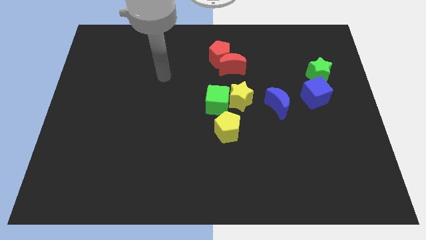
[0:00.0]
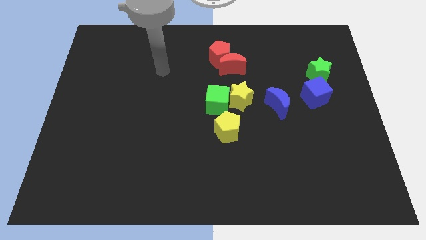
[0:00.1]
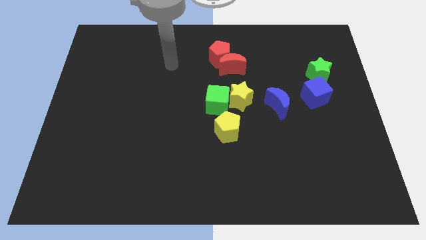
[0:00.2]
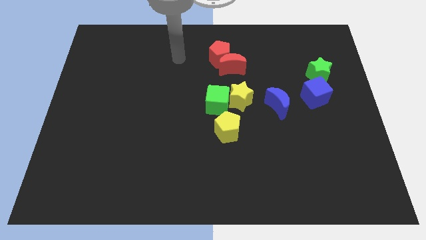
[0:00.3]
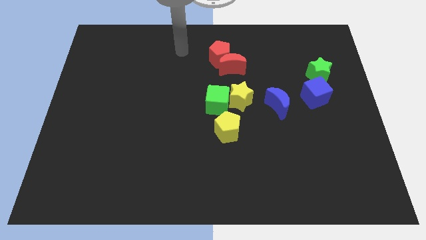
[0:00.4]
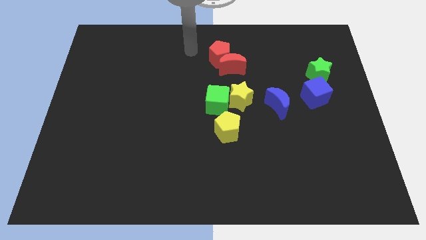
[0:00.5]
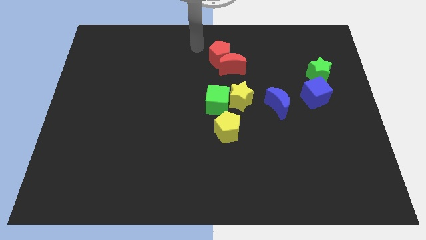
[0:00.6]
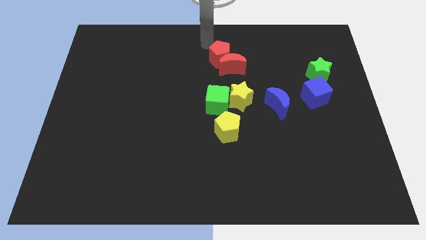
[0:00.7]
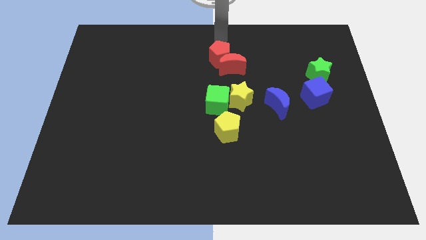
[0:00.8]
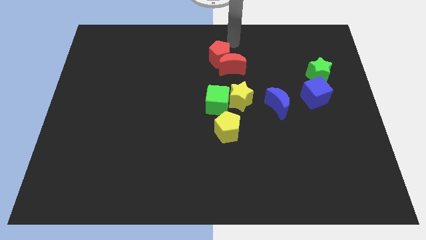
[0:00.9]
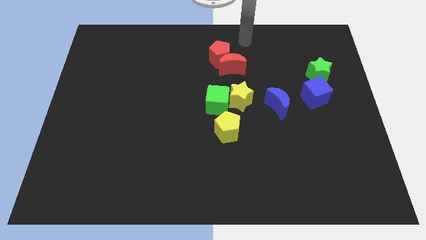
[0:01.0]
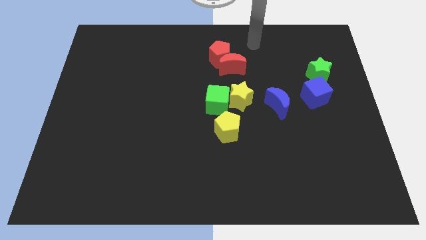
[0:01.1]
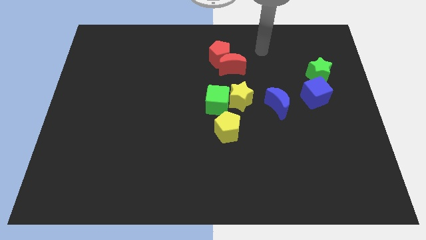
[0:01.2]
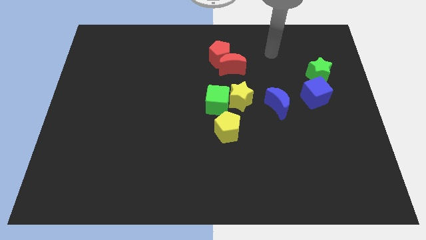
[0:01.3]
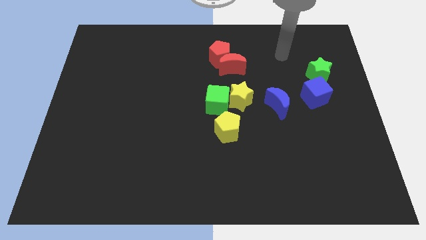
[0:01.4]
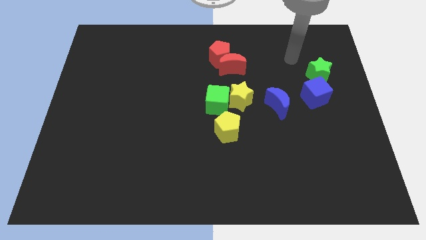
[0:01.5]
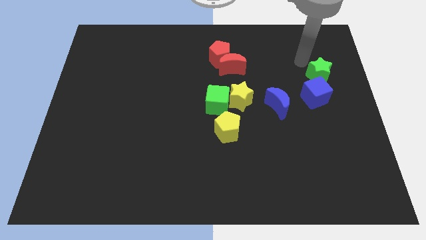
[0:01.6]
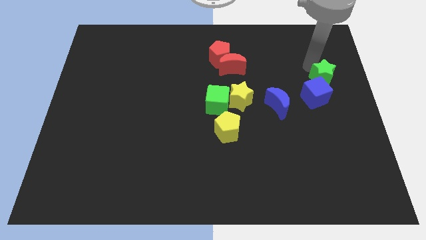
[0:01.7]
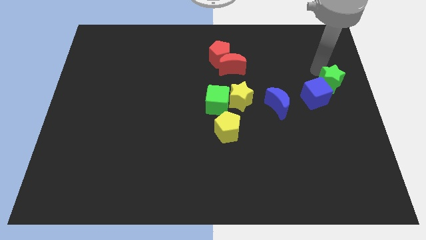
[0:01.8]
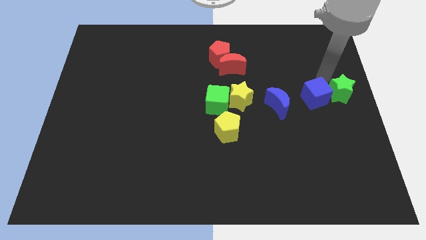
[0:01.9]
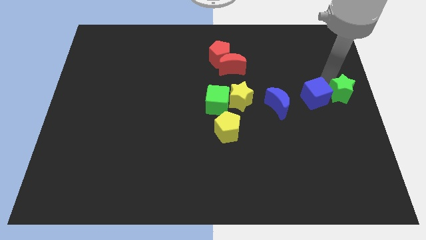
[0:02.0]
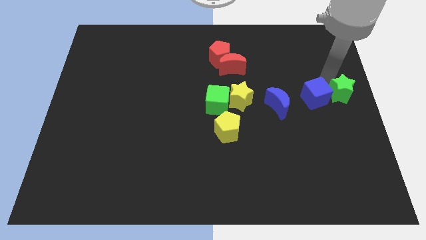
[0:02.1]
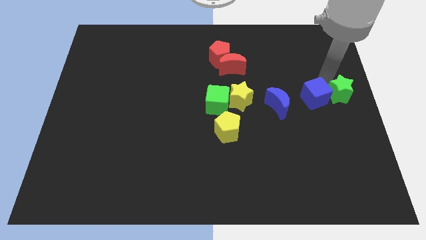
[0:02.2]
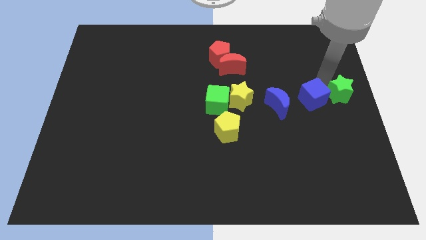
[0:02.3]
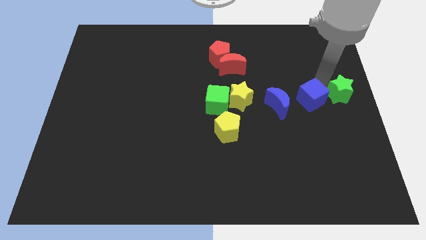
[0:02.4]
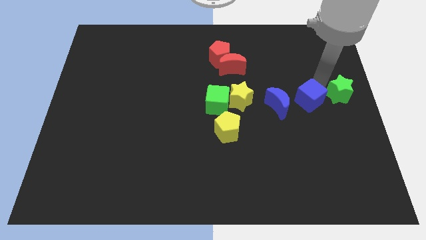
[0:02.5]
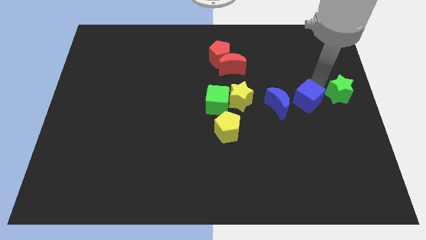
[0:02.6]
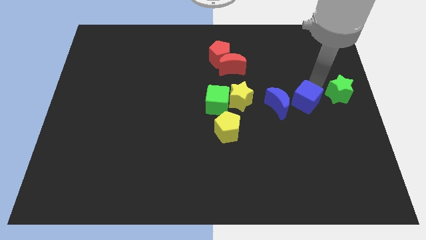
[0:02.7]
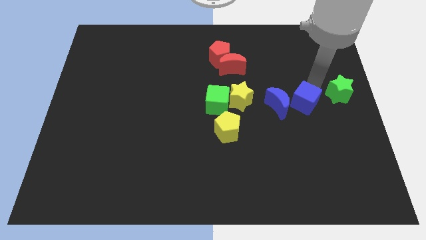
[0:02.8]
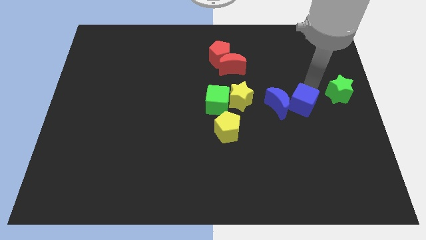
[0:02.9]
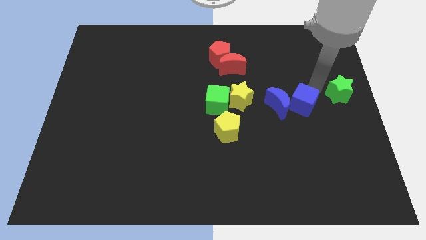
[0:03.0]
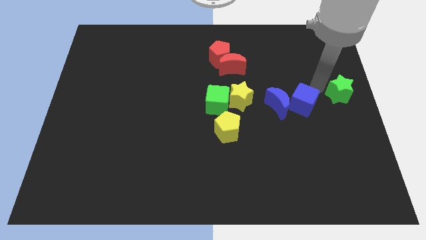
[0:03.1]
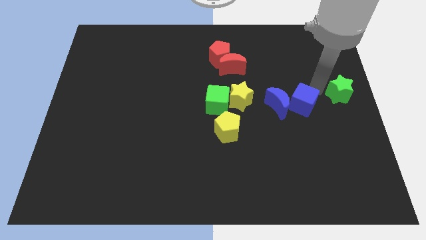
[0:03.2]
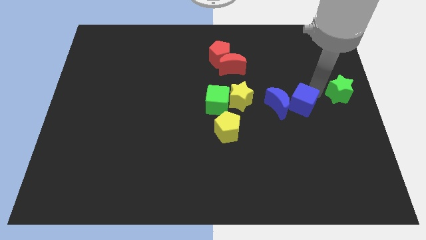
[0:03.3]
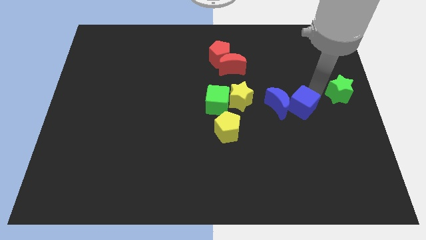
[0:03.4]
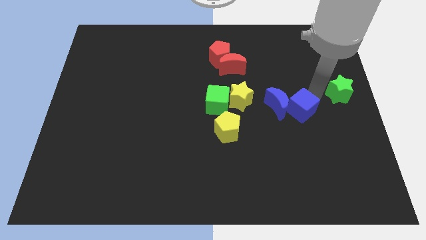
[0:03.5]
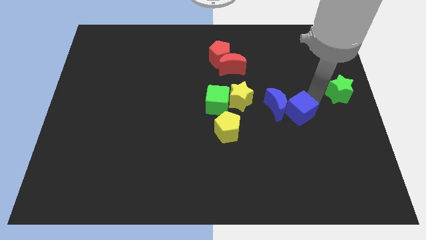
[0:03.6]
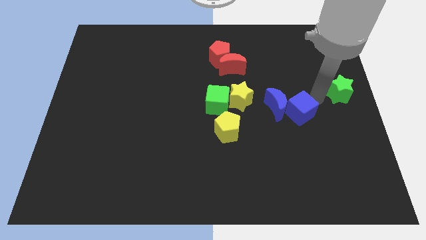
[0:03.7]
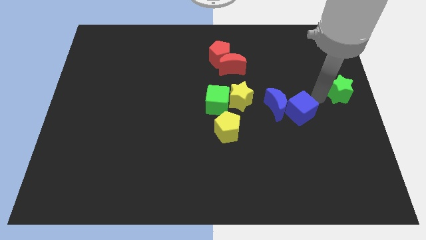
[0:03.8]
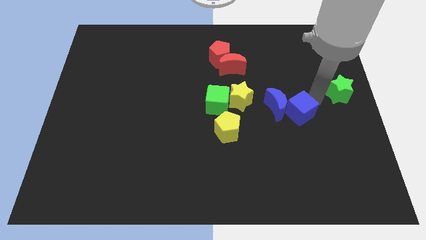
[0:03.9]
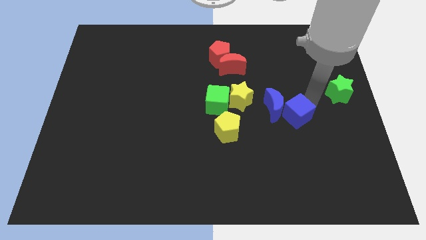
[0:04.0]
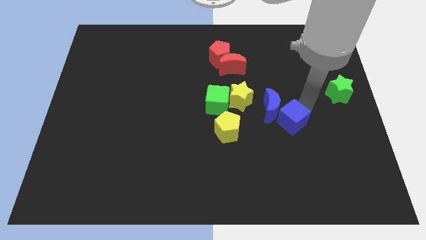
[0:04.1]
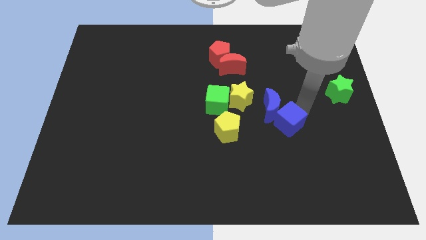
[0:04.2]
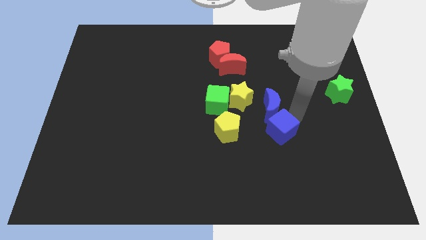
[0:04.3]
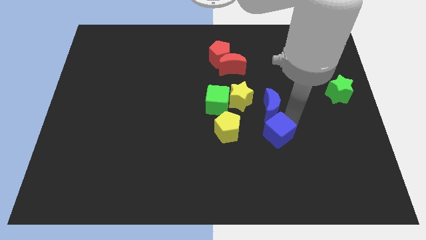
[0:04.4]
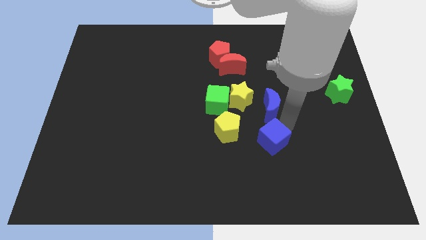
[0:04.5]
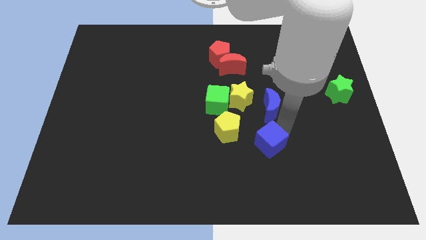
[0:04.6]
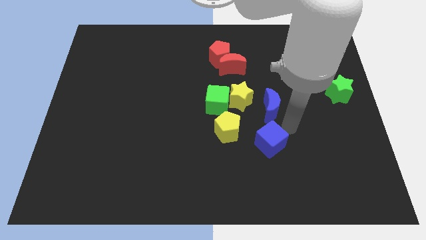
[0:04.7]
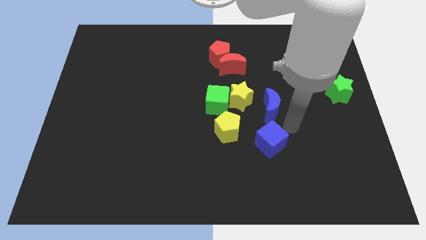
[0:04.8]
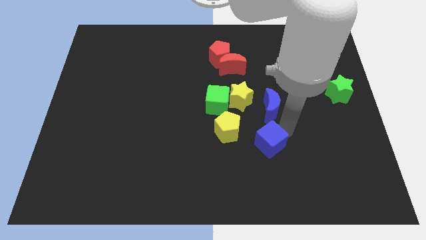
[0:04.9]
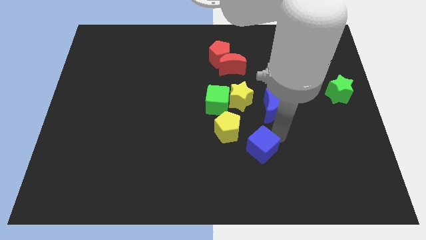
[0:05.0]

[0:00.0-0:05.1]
push the blue cube downwards and left

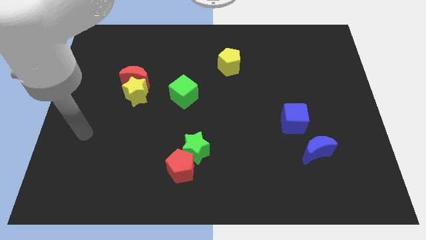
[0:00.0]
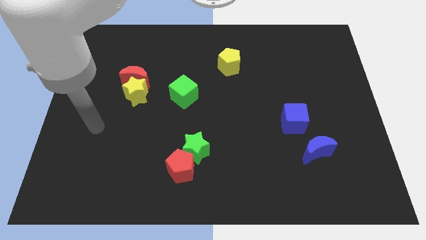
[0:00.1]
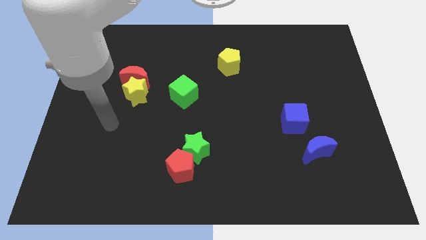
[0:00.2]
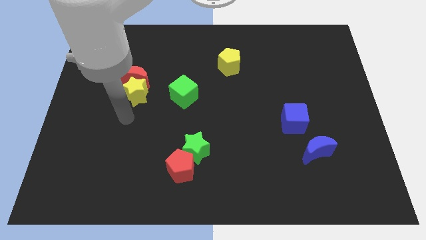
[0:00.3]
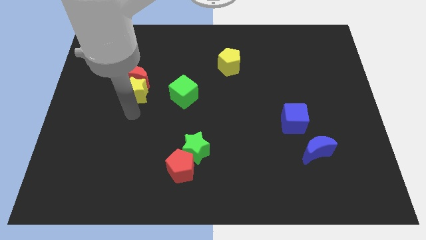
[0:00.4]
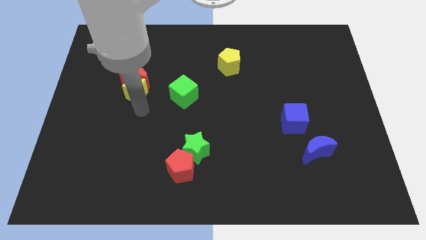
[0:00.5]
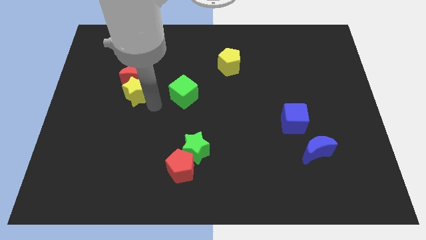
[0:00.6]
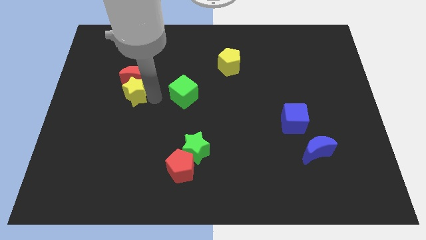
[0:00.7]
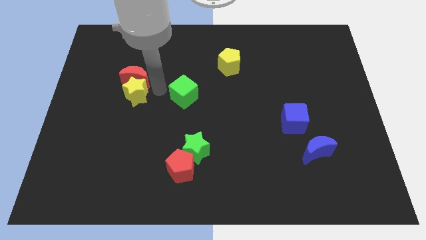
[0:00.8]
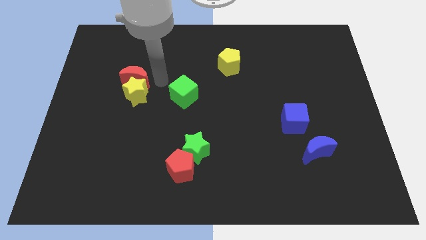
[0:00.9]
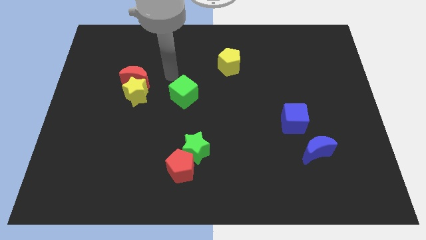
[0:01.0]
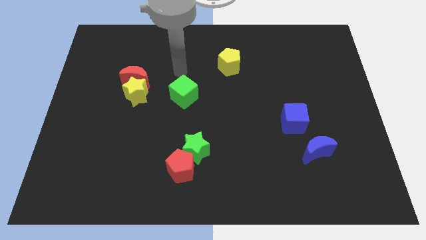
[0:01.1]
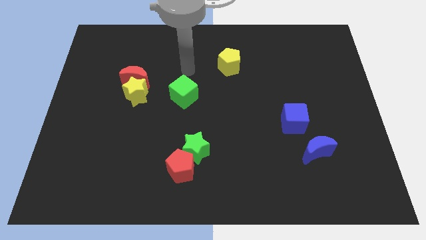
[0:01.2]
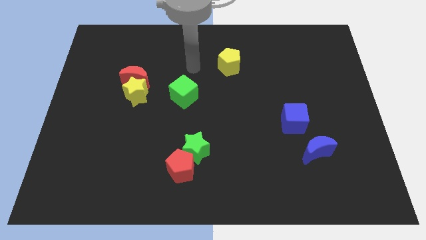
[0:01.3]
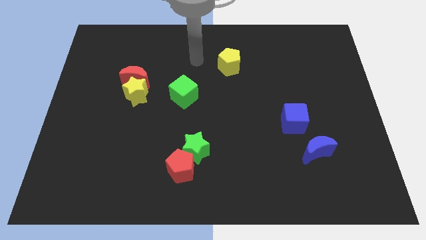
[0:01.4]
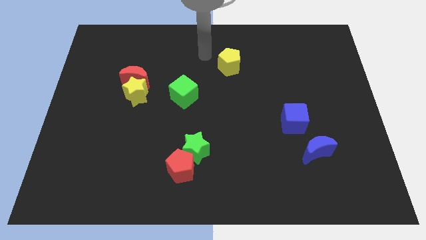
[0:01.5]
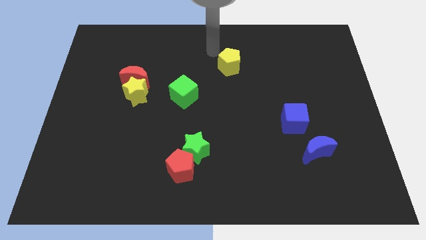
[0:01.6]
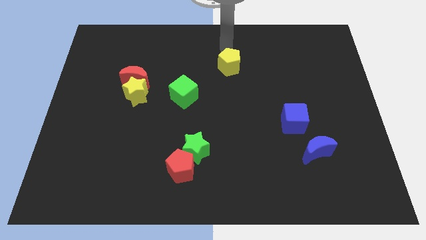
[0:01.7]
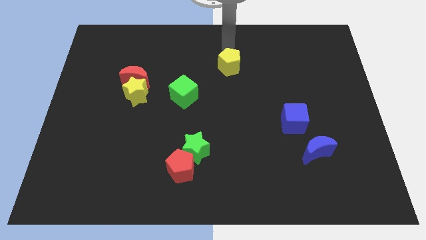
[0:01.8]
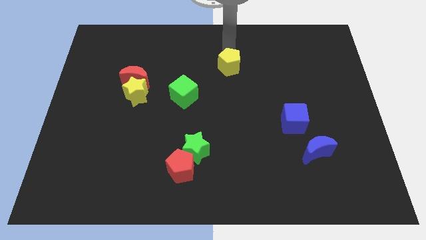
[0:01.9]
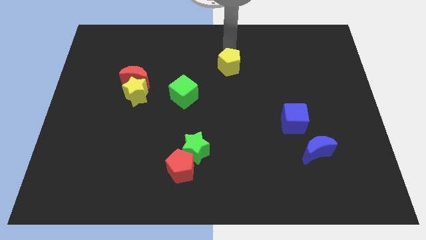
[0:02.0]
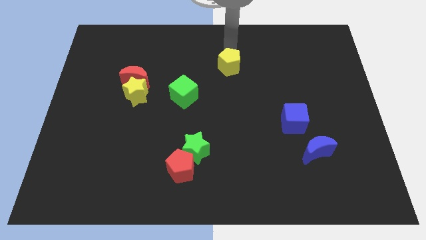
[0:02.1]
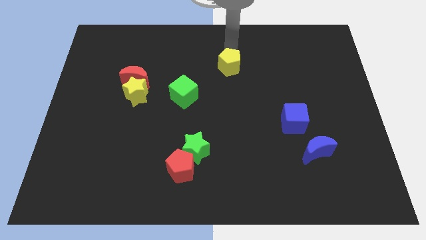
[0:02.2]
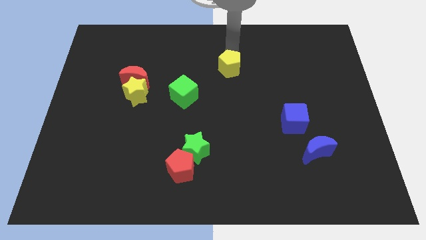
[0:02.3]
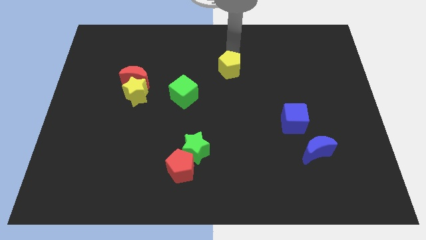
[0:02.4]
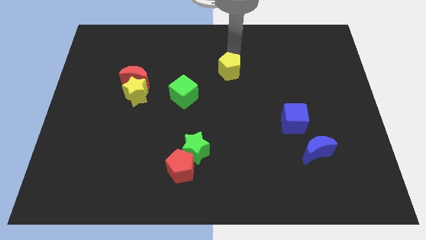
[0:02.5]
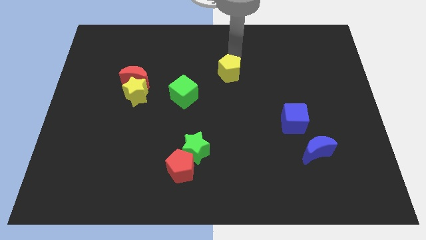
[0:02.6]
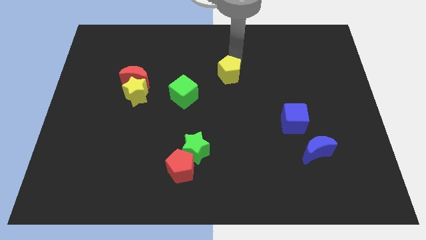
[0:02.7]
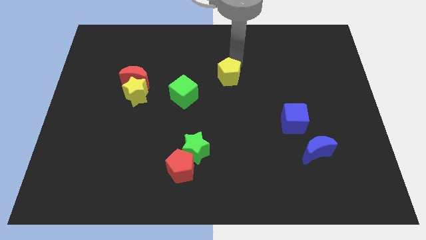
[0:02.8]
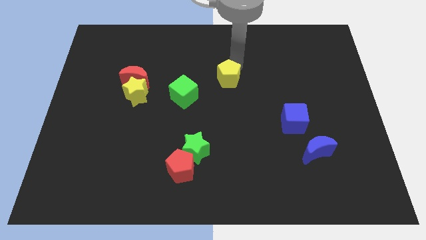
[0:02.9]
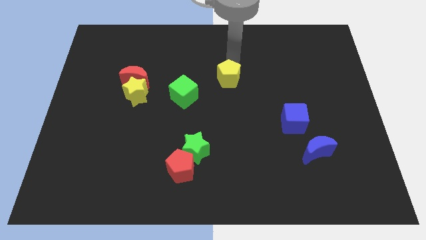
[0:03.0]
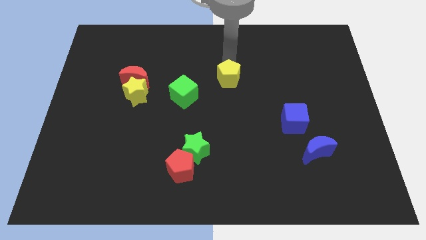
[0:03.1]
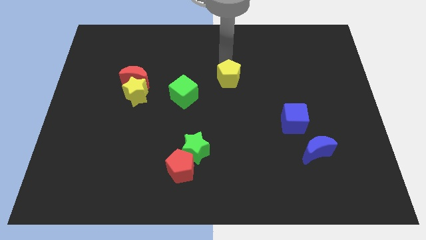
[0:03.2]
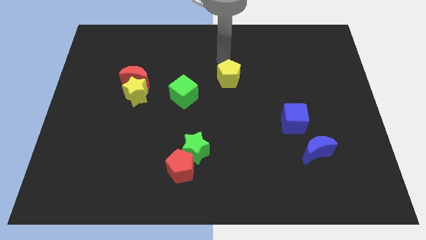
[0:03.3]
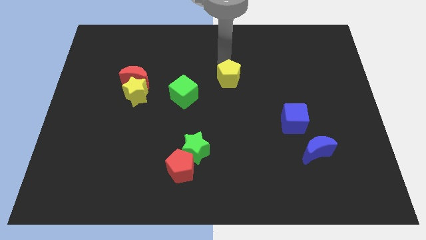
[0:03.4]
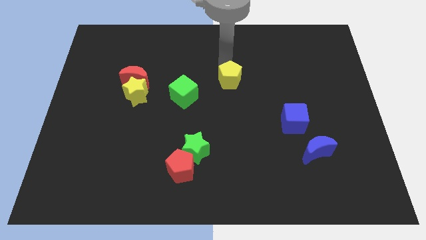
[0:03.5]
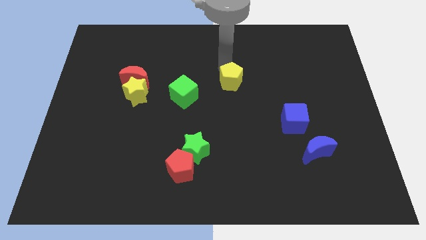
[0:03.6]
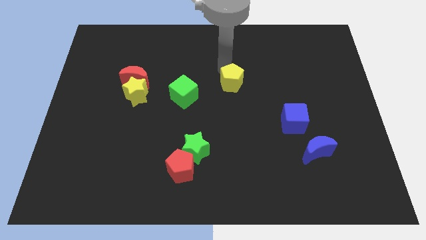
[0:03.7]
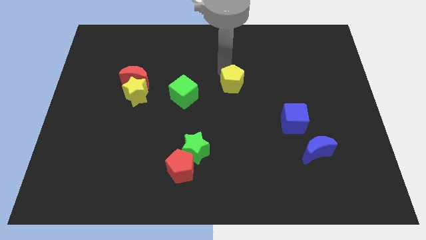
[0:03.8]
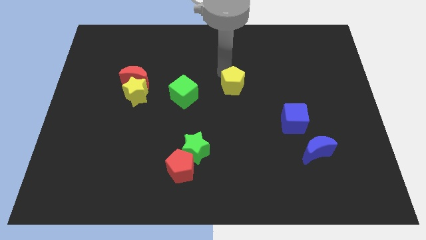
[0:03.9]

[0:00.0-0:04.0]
slightly slide the yellow pentagon down
